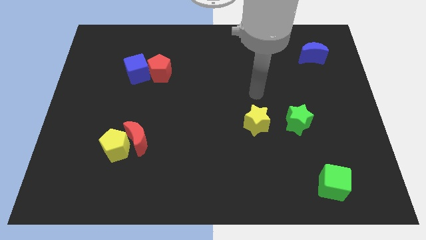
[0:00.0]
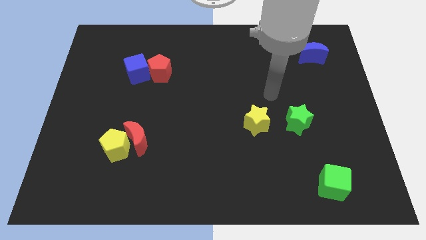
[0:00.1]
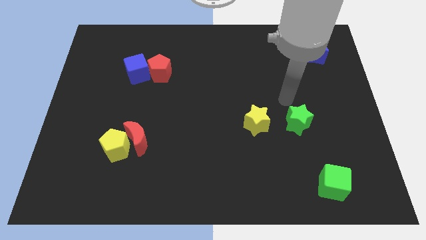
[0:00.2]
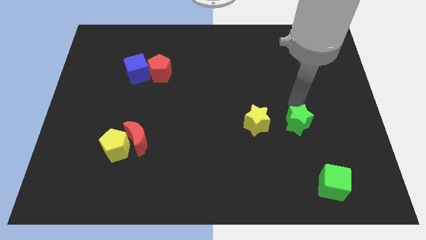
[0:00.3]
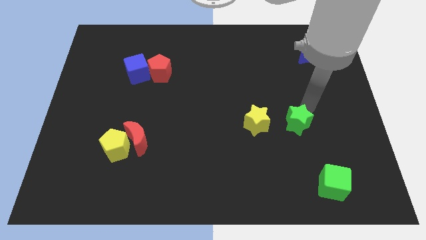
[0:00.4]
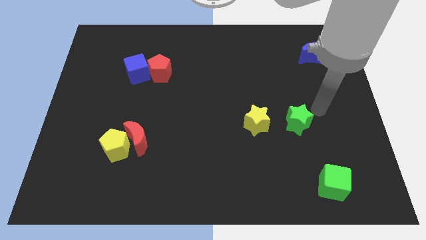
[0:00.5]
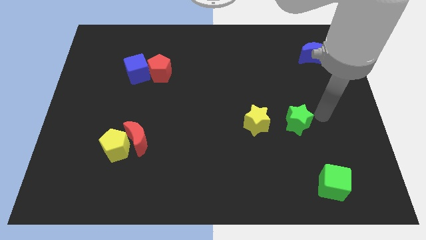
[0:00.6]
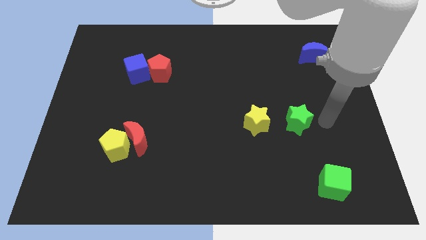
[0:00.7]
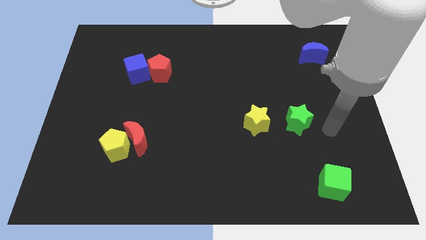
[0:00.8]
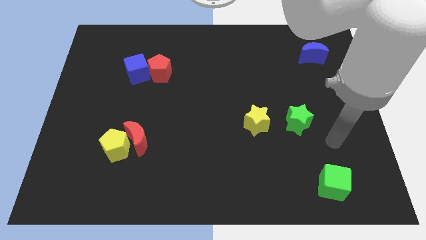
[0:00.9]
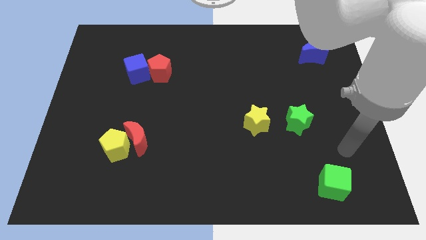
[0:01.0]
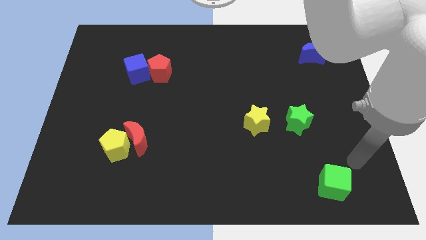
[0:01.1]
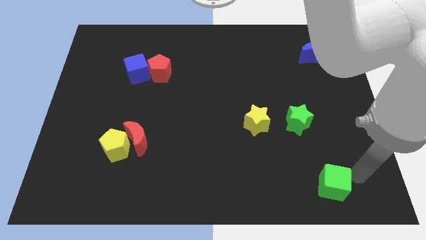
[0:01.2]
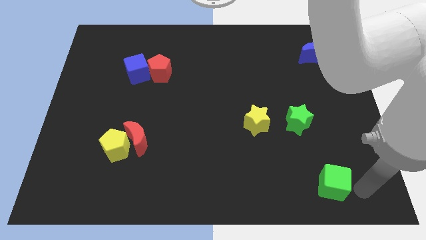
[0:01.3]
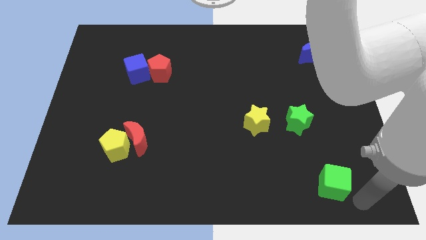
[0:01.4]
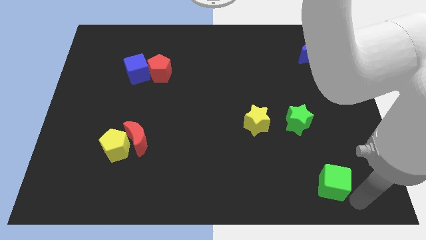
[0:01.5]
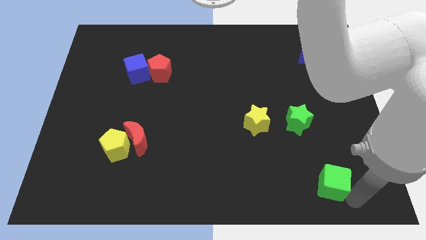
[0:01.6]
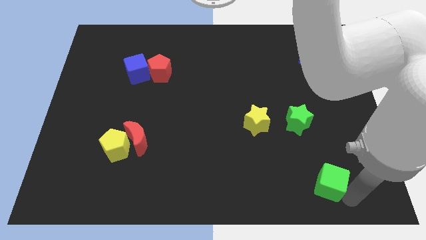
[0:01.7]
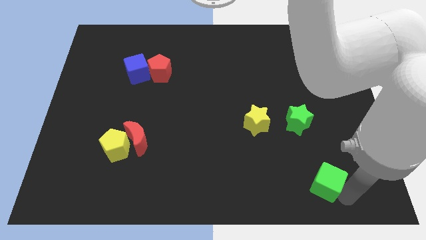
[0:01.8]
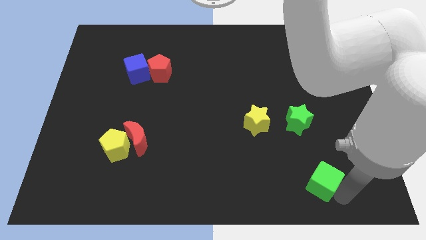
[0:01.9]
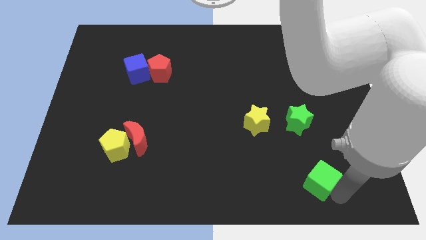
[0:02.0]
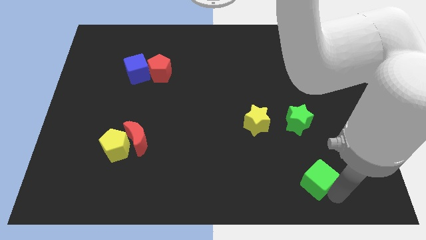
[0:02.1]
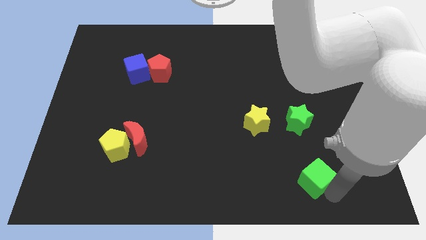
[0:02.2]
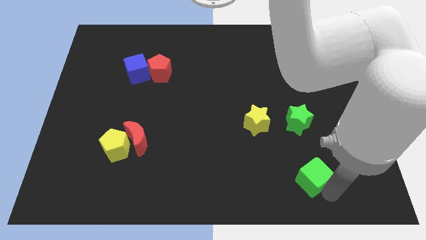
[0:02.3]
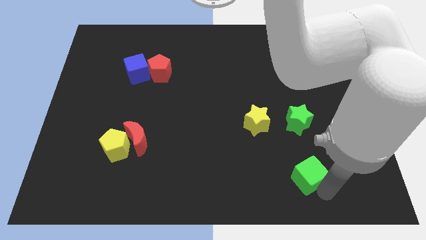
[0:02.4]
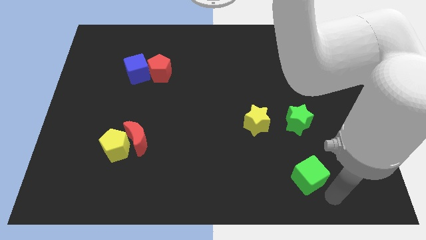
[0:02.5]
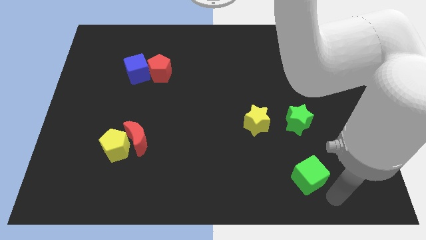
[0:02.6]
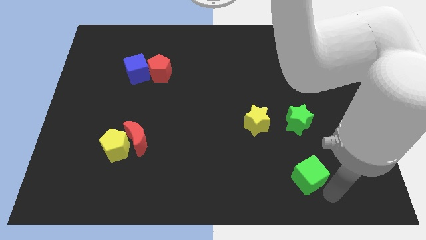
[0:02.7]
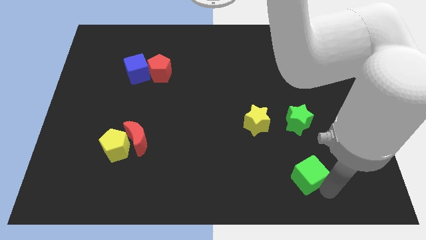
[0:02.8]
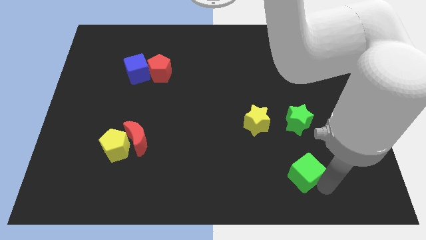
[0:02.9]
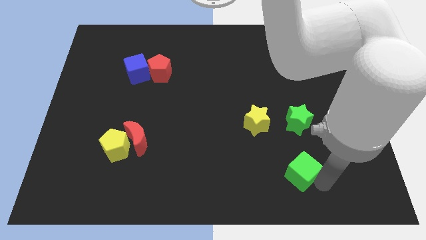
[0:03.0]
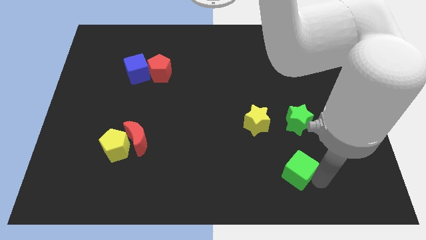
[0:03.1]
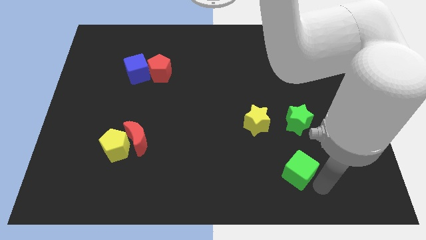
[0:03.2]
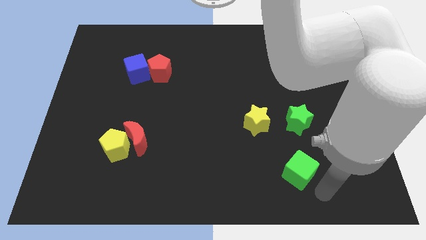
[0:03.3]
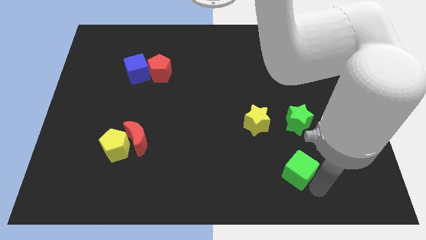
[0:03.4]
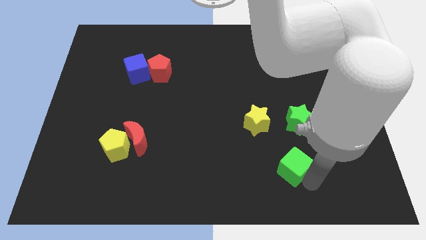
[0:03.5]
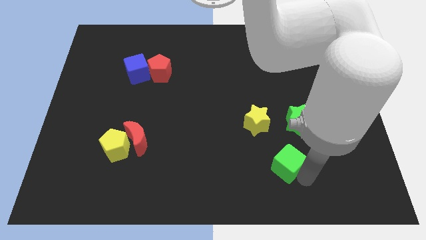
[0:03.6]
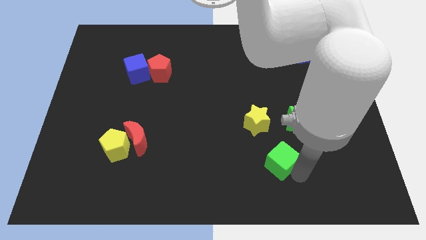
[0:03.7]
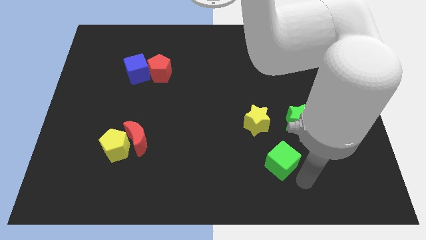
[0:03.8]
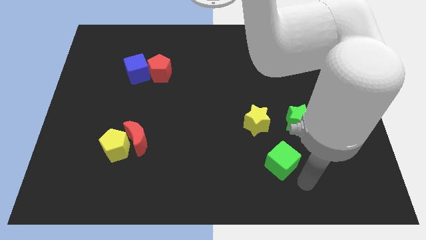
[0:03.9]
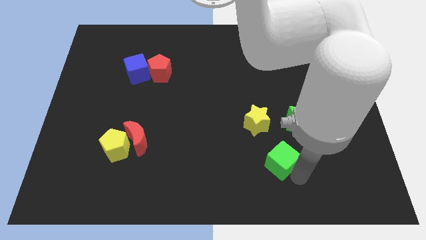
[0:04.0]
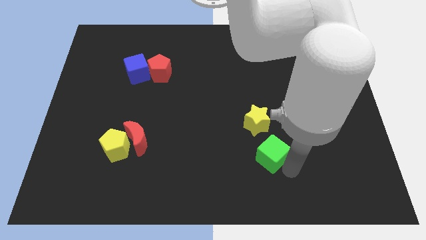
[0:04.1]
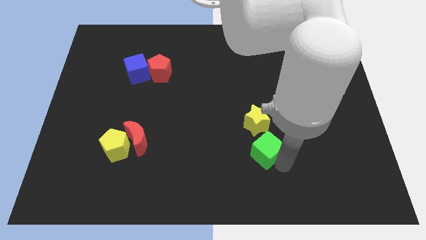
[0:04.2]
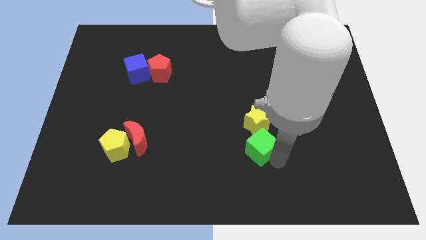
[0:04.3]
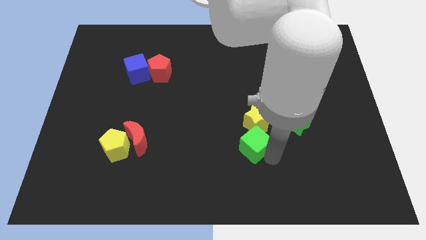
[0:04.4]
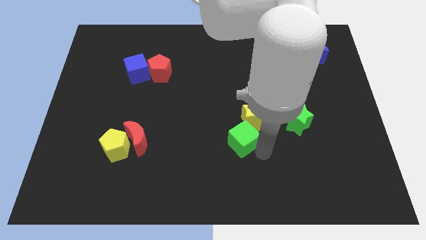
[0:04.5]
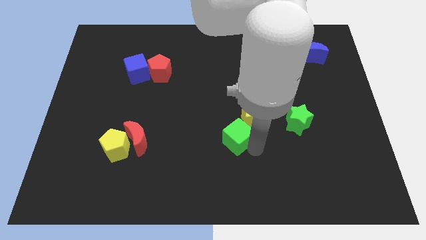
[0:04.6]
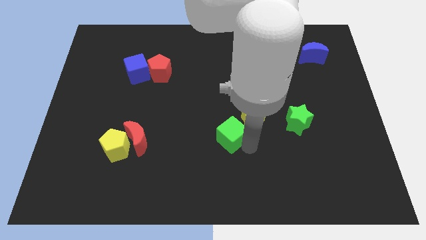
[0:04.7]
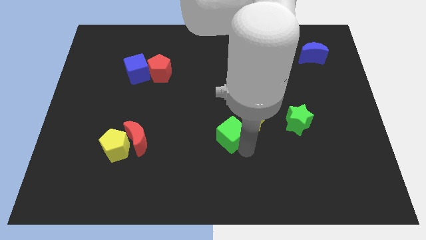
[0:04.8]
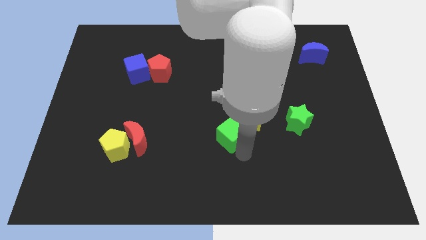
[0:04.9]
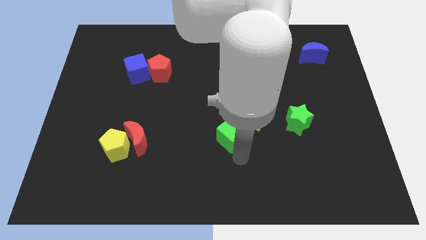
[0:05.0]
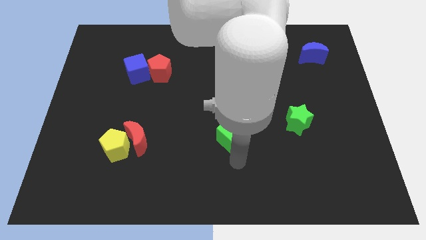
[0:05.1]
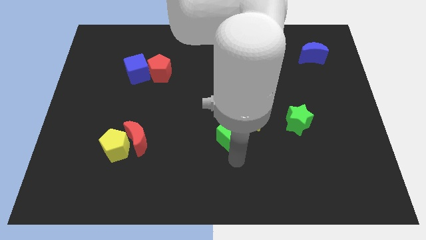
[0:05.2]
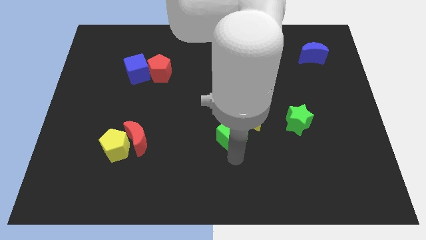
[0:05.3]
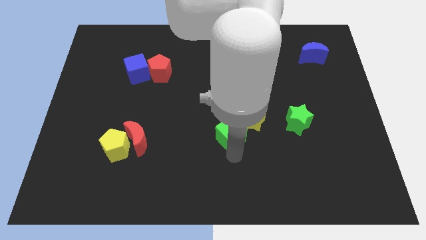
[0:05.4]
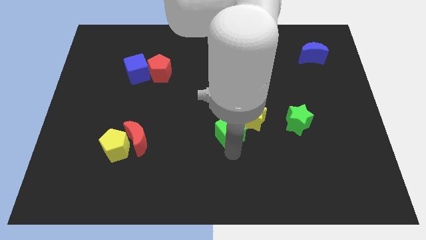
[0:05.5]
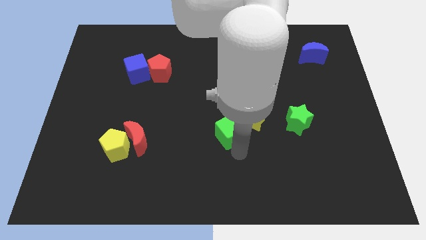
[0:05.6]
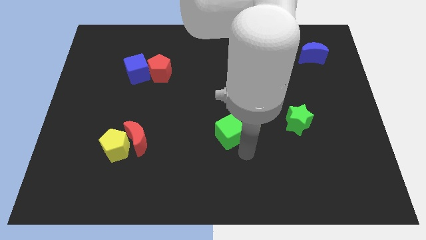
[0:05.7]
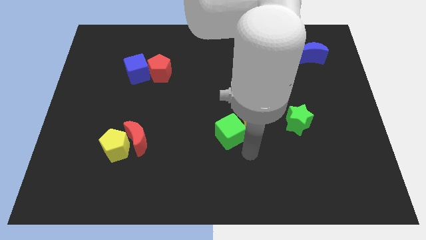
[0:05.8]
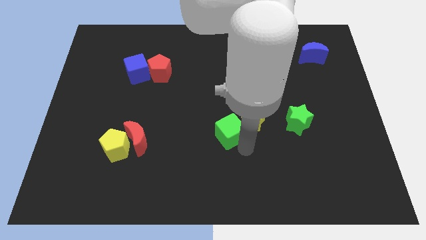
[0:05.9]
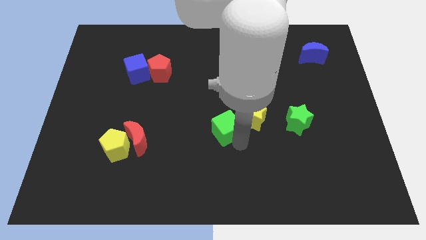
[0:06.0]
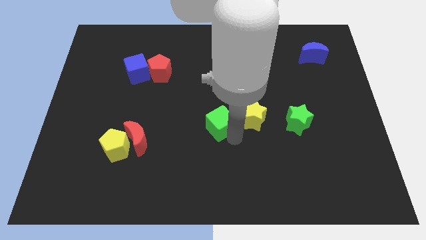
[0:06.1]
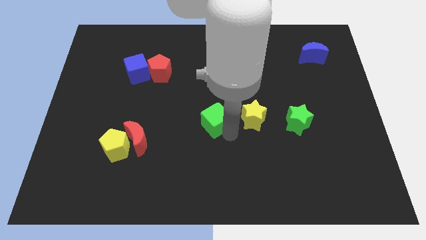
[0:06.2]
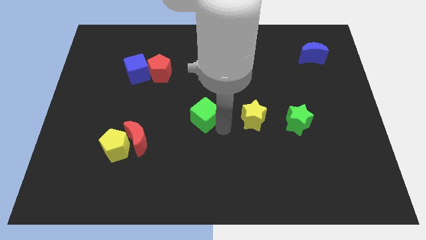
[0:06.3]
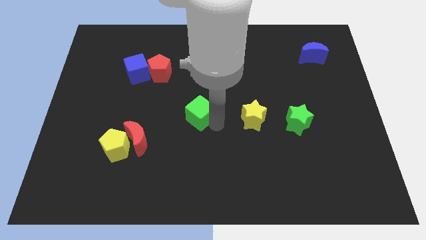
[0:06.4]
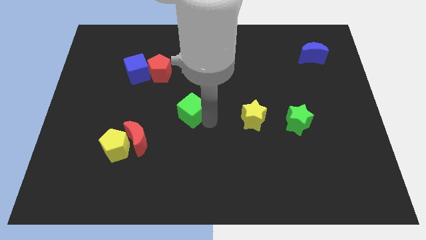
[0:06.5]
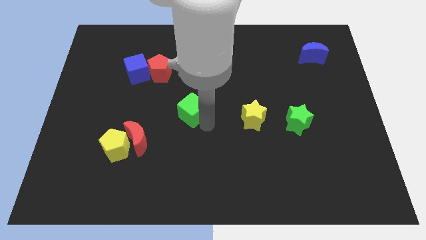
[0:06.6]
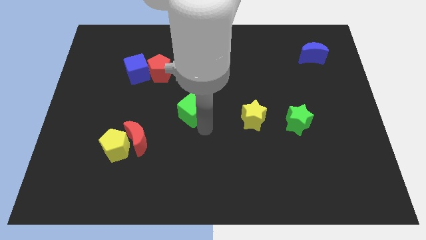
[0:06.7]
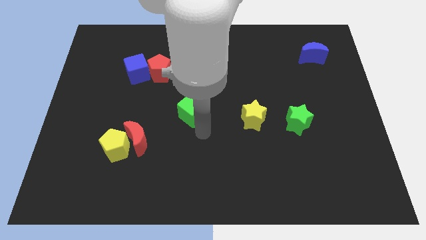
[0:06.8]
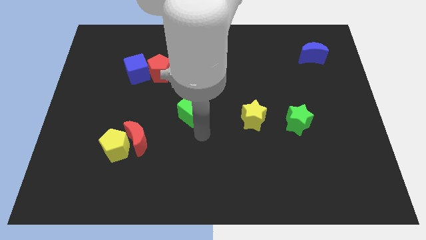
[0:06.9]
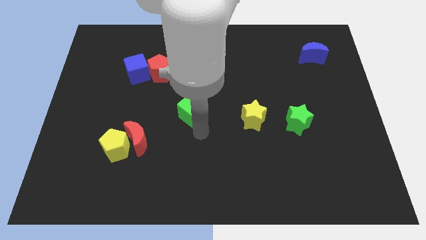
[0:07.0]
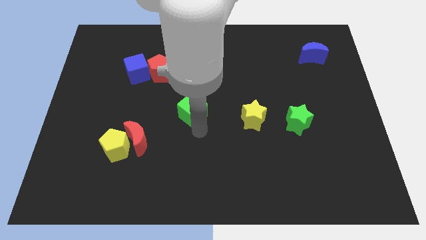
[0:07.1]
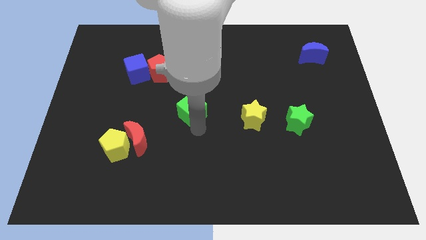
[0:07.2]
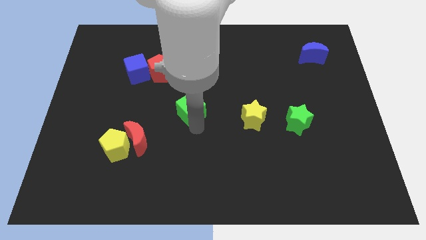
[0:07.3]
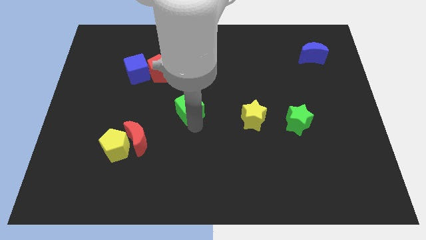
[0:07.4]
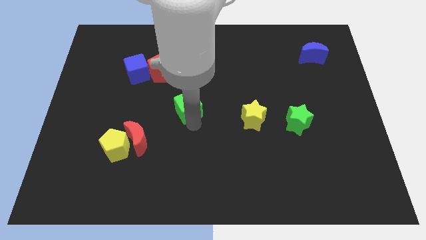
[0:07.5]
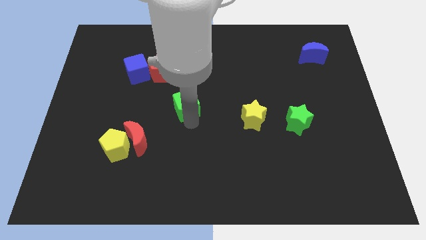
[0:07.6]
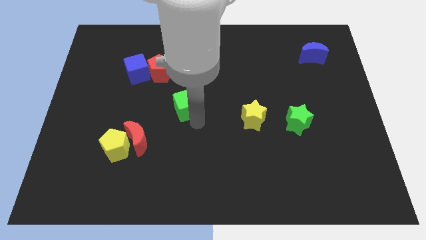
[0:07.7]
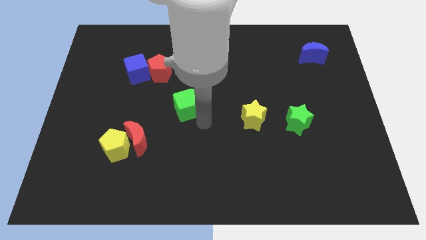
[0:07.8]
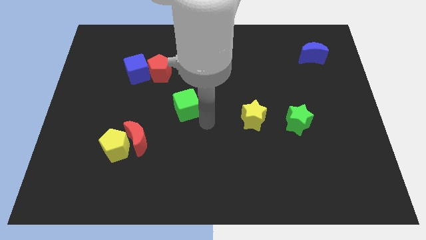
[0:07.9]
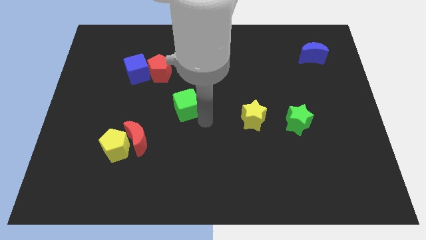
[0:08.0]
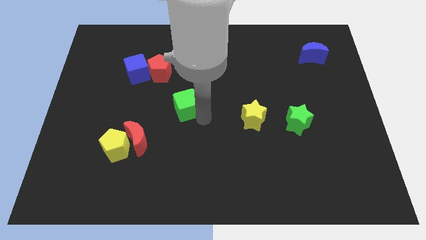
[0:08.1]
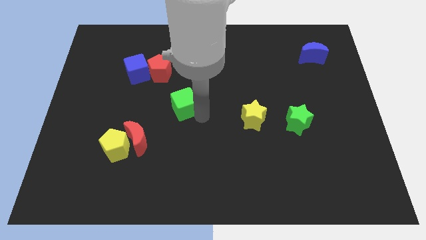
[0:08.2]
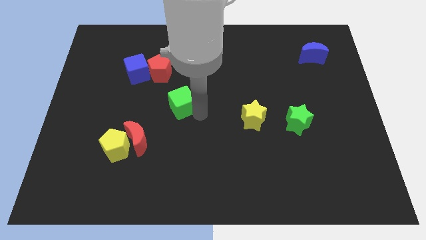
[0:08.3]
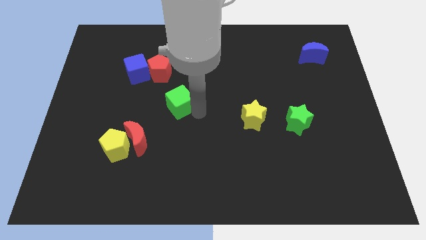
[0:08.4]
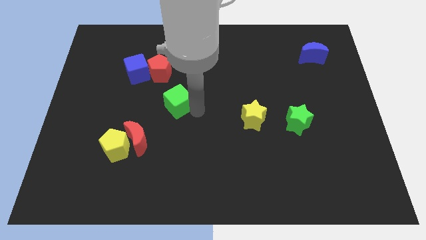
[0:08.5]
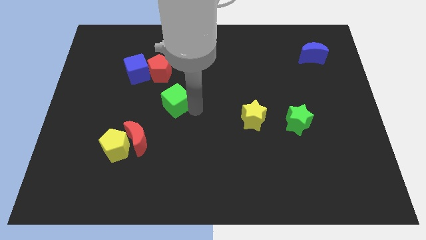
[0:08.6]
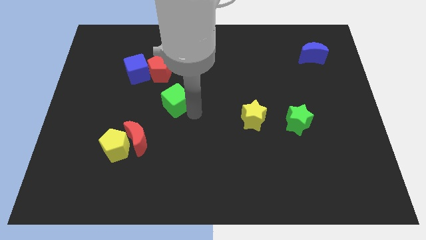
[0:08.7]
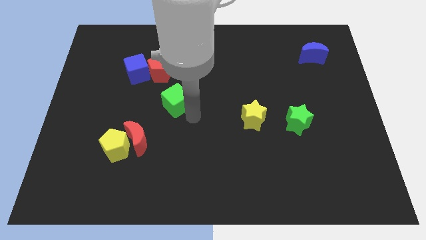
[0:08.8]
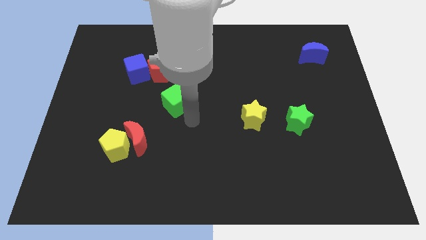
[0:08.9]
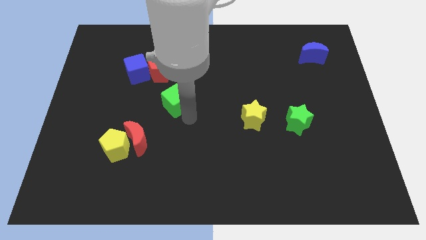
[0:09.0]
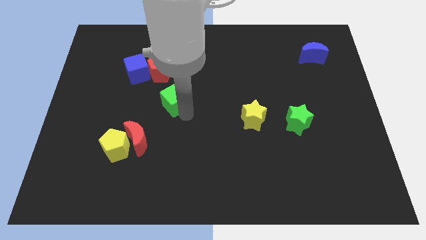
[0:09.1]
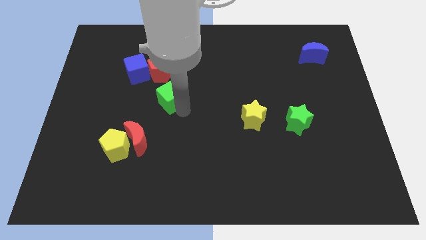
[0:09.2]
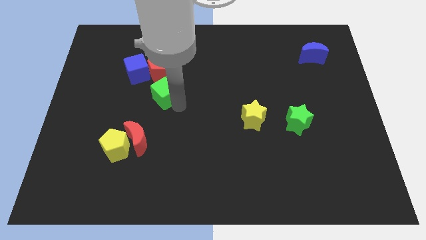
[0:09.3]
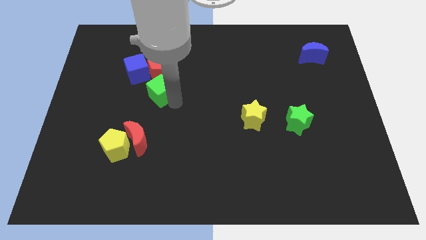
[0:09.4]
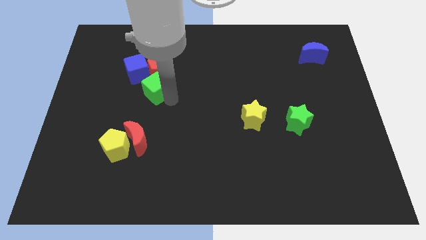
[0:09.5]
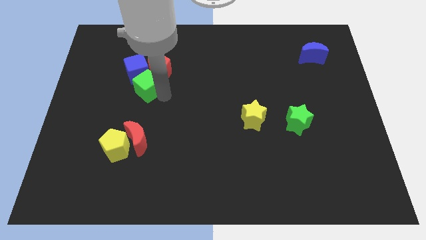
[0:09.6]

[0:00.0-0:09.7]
move the green cube next to the blue cube
